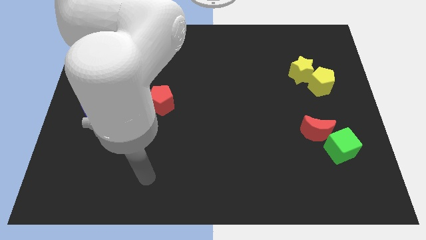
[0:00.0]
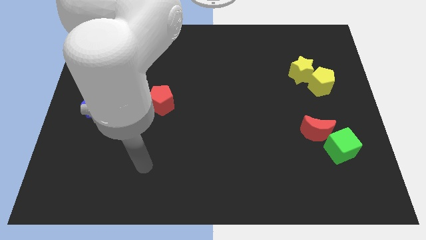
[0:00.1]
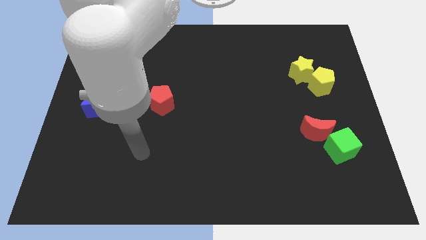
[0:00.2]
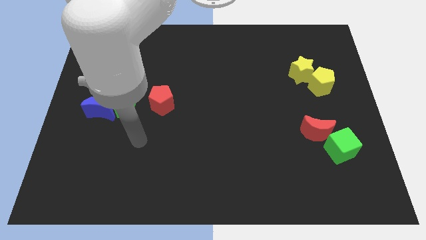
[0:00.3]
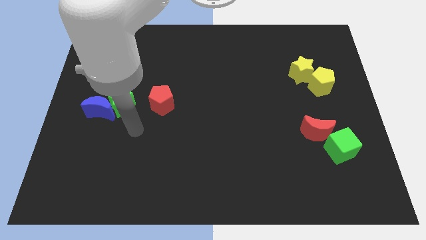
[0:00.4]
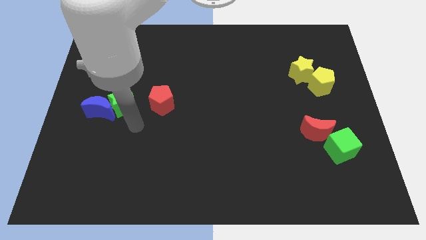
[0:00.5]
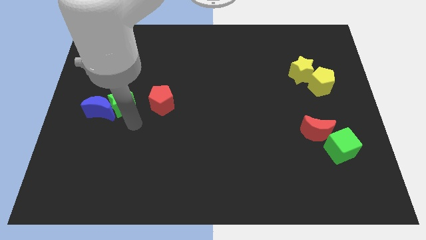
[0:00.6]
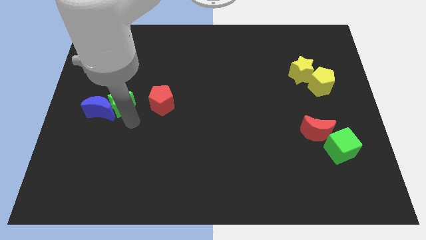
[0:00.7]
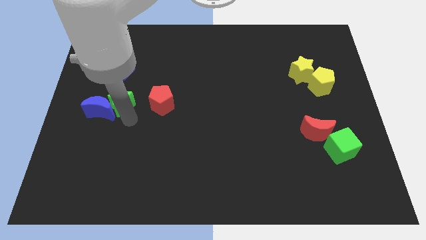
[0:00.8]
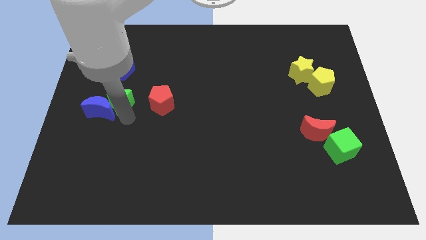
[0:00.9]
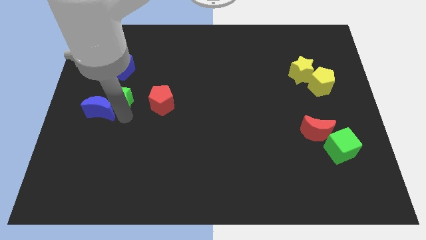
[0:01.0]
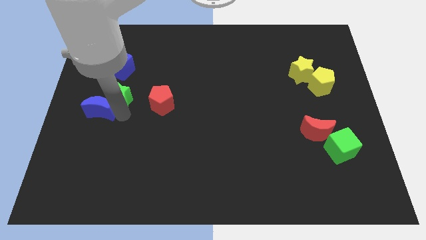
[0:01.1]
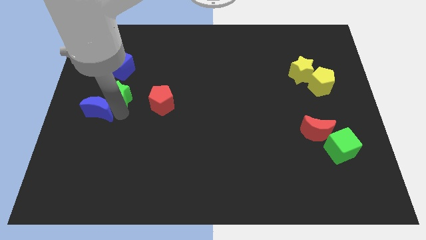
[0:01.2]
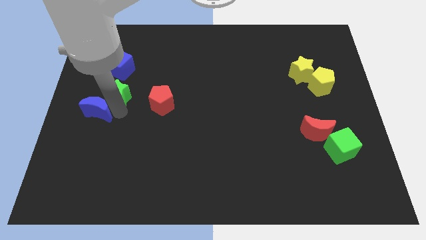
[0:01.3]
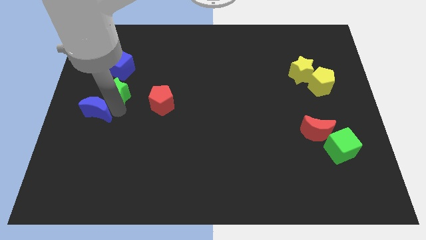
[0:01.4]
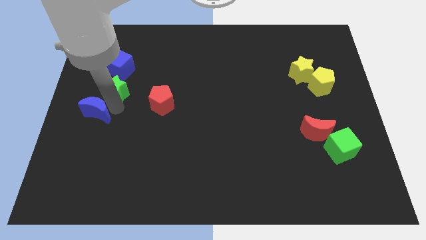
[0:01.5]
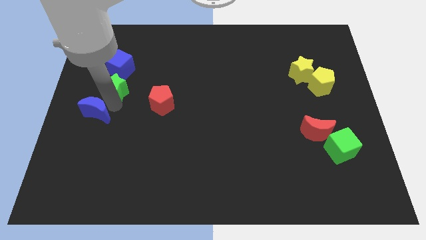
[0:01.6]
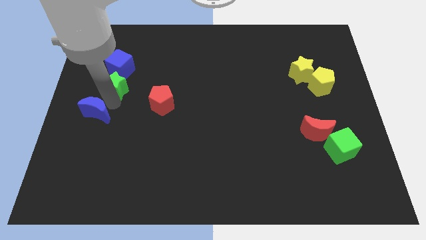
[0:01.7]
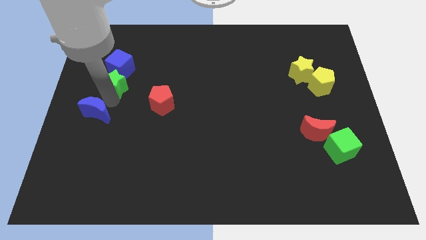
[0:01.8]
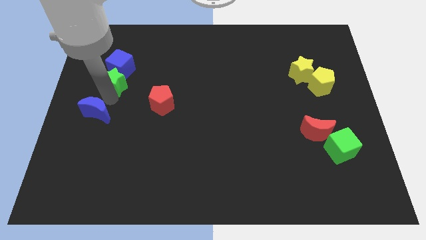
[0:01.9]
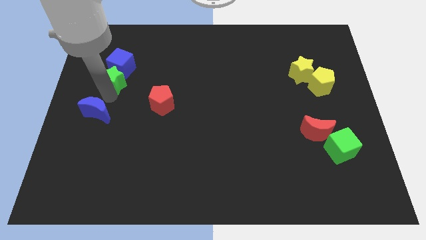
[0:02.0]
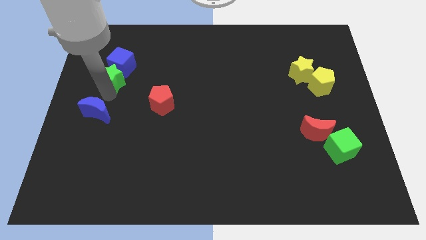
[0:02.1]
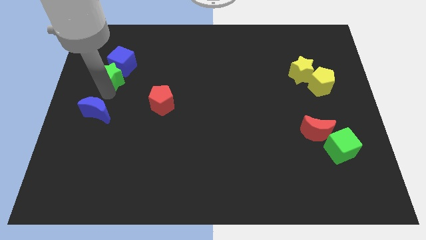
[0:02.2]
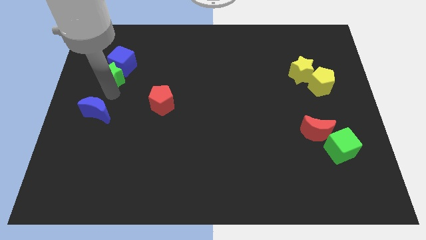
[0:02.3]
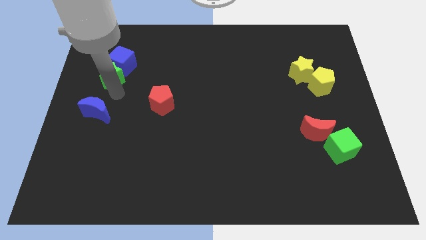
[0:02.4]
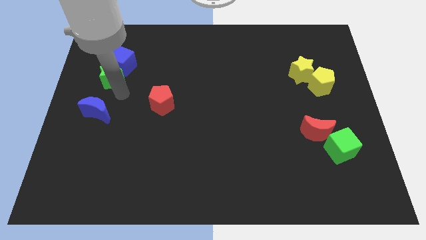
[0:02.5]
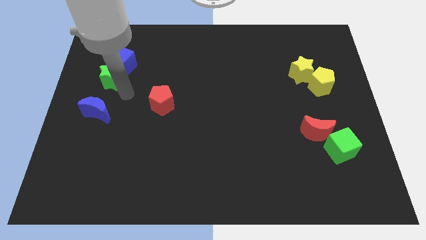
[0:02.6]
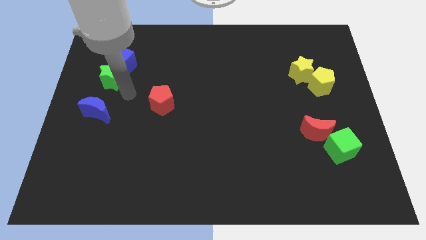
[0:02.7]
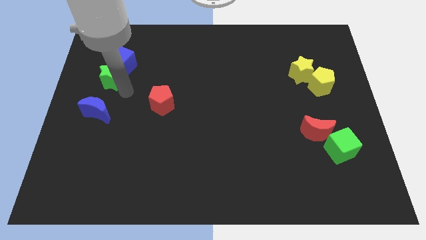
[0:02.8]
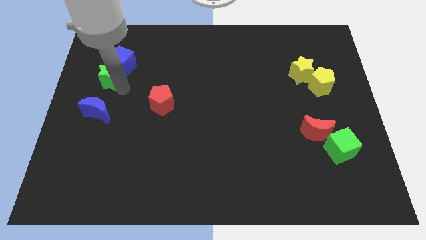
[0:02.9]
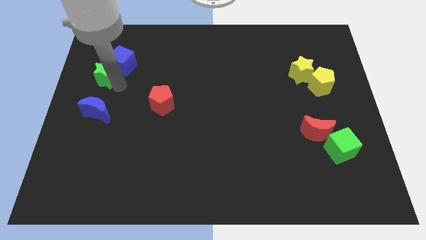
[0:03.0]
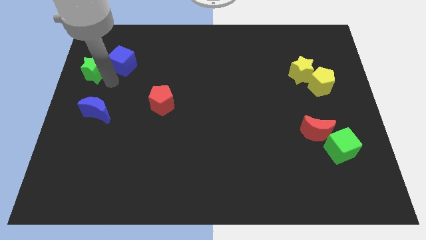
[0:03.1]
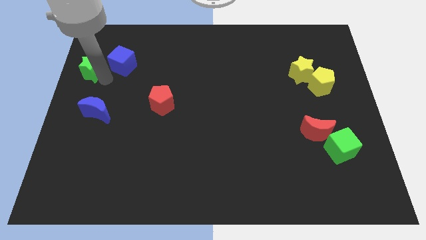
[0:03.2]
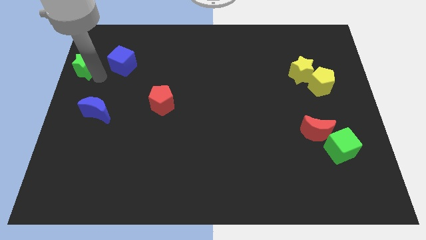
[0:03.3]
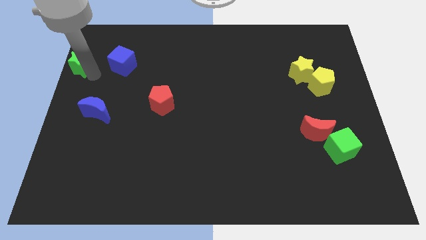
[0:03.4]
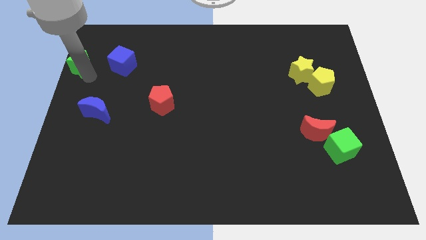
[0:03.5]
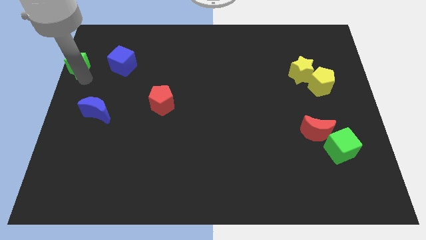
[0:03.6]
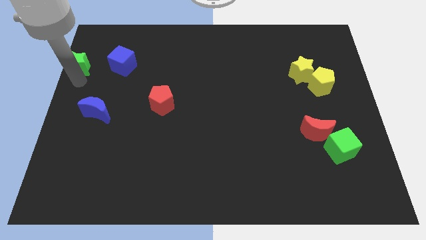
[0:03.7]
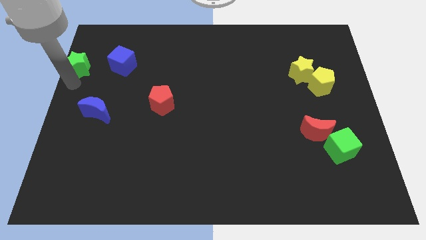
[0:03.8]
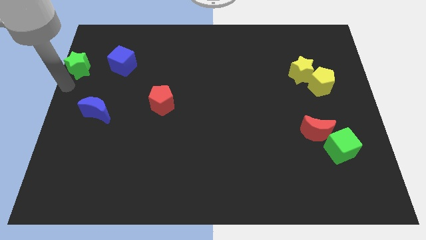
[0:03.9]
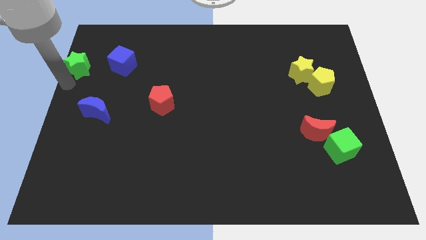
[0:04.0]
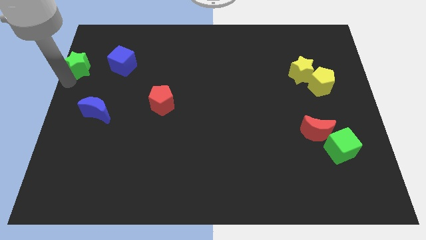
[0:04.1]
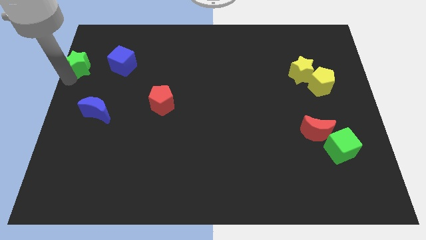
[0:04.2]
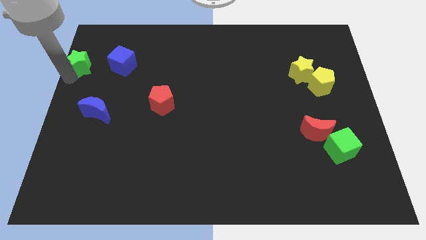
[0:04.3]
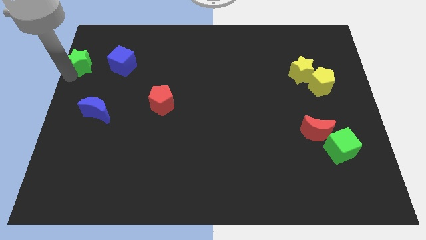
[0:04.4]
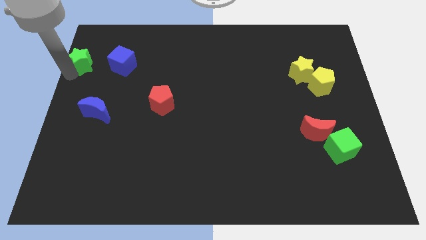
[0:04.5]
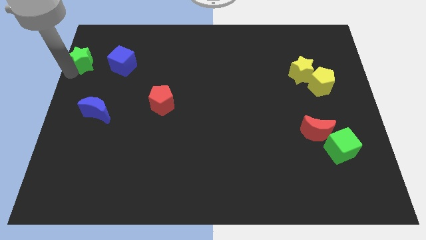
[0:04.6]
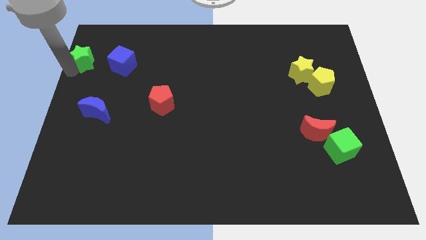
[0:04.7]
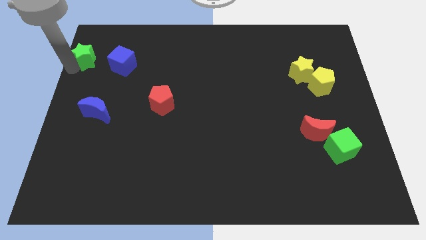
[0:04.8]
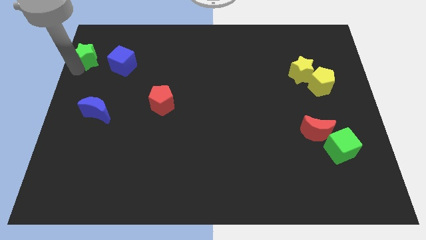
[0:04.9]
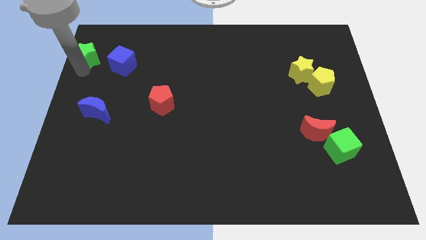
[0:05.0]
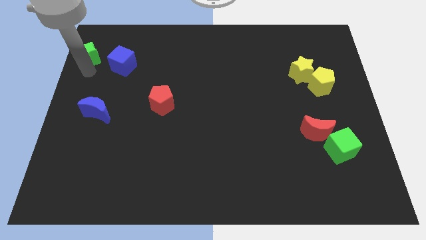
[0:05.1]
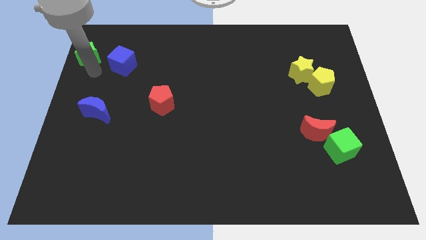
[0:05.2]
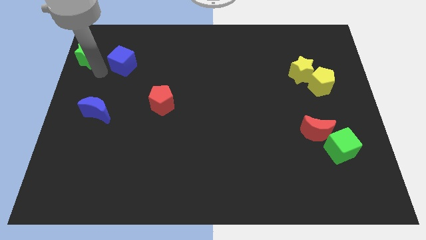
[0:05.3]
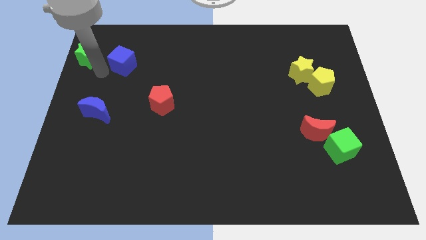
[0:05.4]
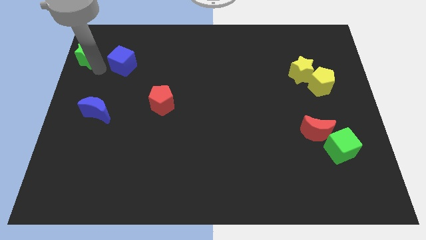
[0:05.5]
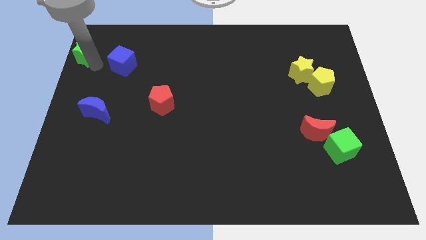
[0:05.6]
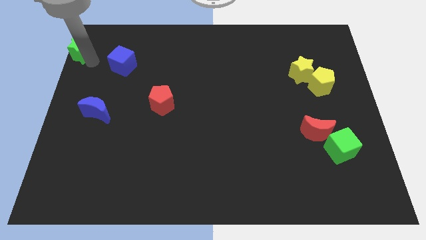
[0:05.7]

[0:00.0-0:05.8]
move the green star to the top left corner

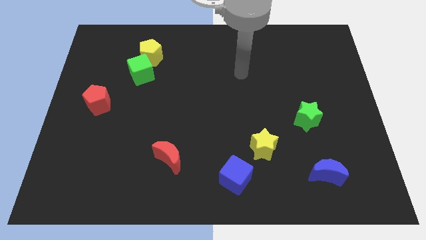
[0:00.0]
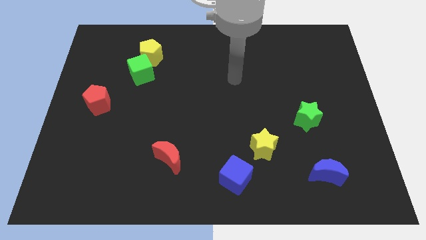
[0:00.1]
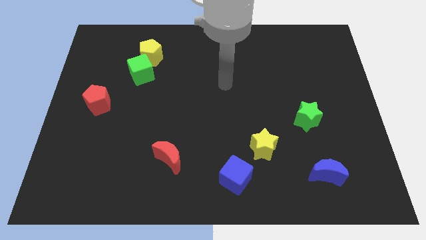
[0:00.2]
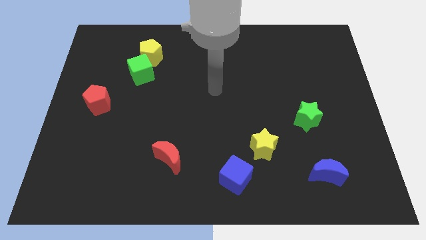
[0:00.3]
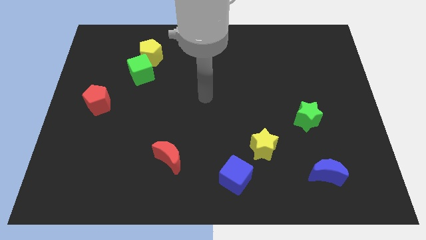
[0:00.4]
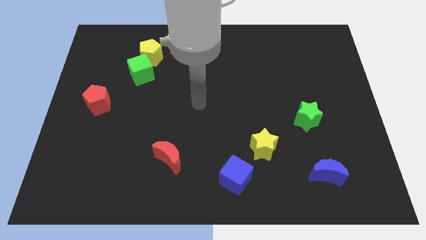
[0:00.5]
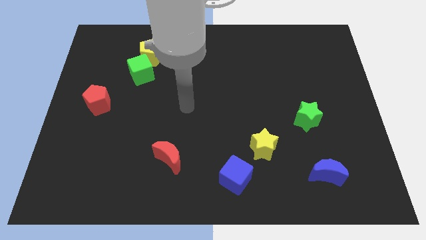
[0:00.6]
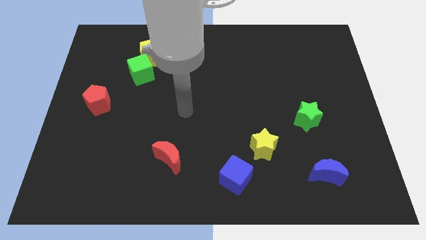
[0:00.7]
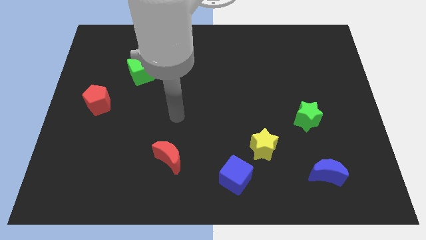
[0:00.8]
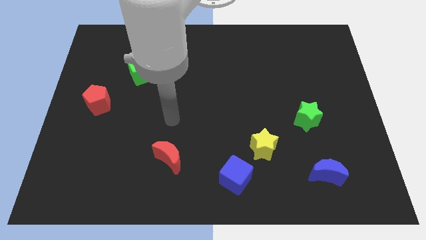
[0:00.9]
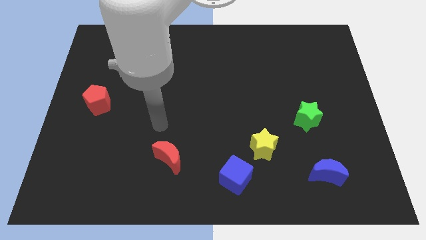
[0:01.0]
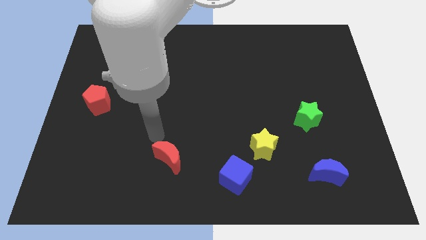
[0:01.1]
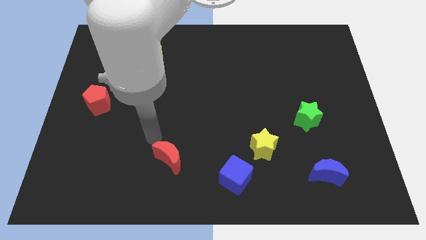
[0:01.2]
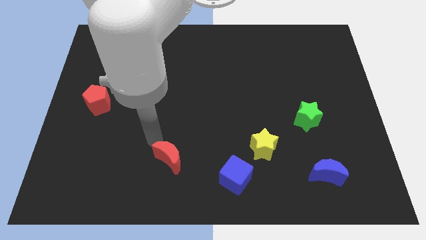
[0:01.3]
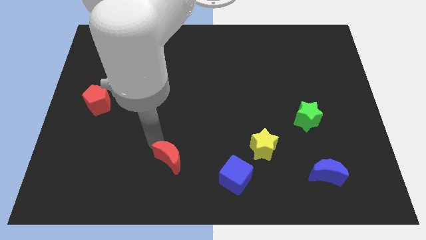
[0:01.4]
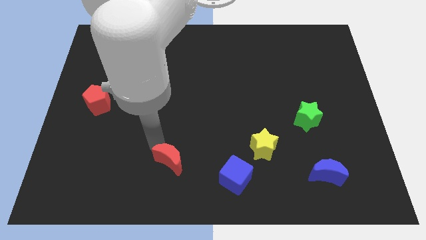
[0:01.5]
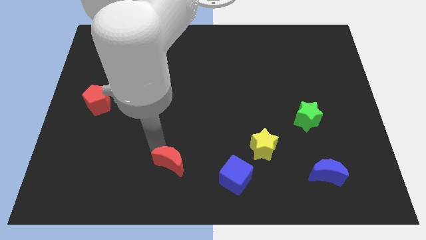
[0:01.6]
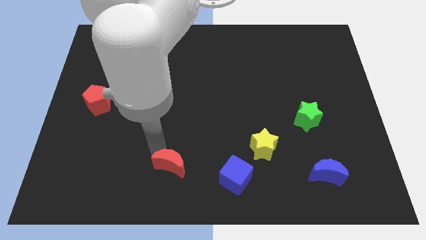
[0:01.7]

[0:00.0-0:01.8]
slide the red moon to the bottom
